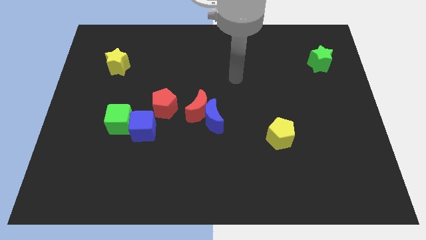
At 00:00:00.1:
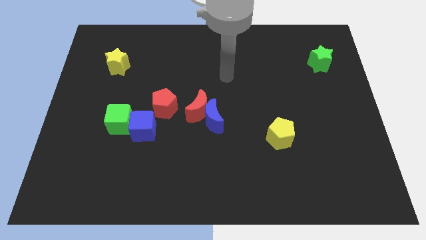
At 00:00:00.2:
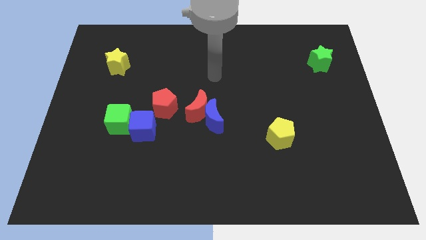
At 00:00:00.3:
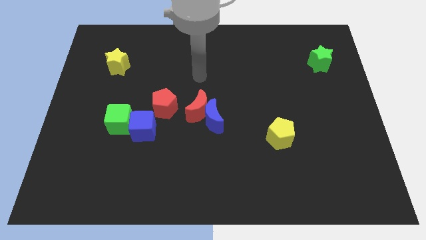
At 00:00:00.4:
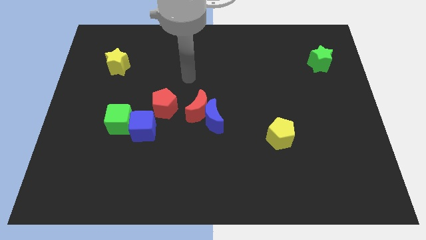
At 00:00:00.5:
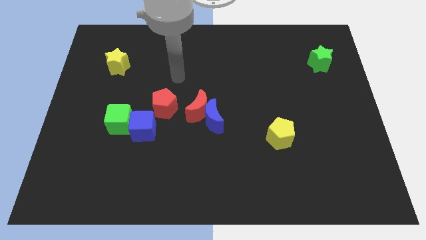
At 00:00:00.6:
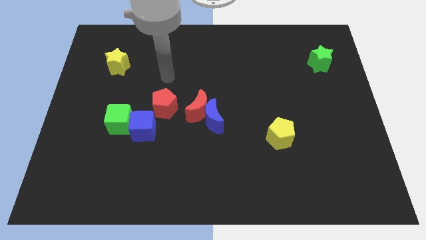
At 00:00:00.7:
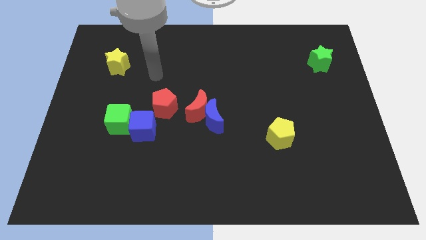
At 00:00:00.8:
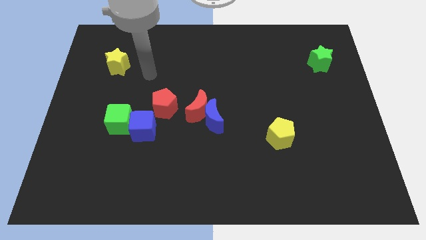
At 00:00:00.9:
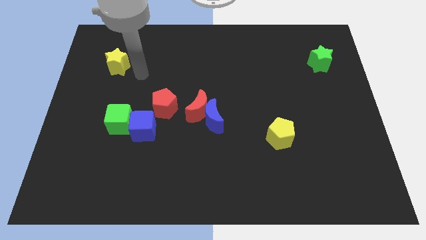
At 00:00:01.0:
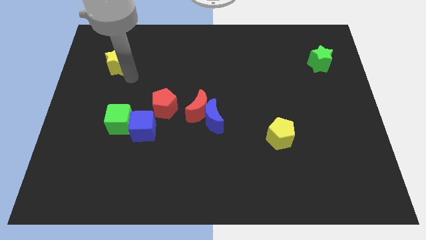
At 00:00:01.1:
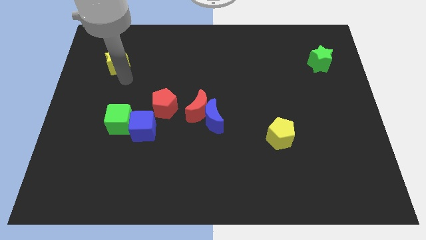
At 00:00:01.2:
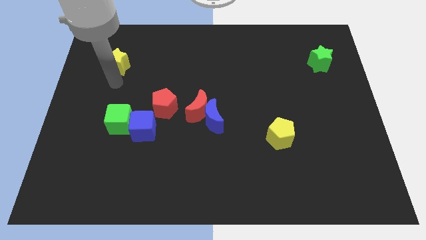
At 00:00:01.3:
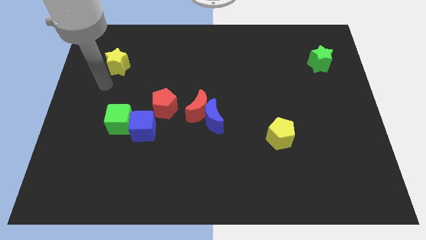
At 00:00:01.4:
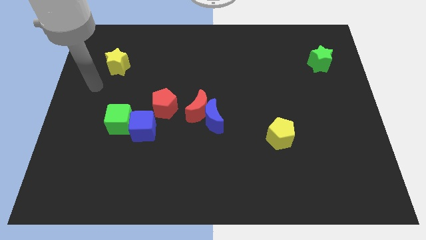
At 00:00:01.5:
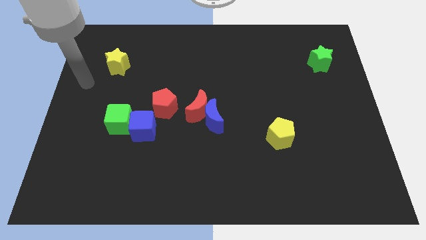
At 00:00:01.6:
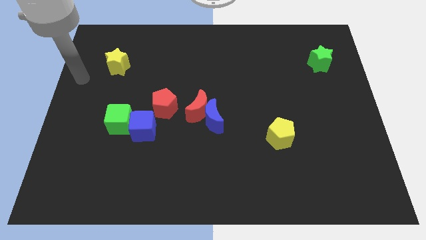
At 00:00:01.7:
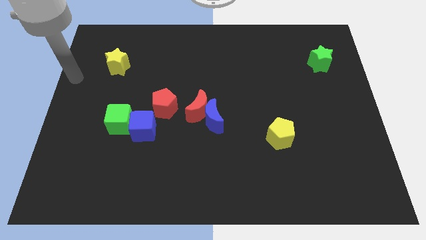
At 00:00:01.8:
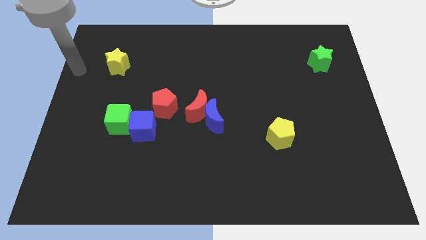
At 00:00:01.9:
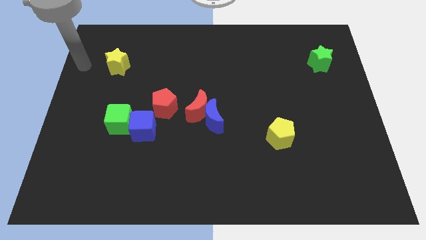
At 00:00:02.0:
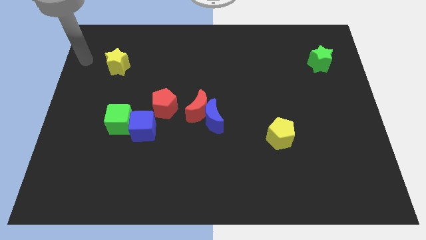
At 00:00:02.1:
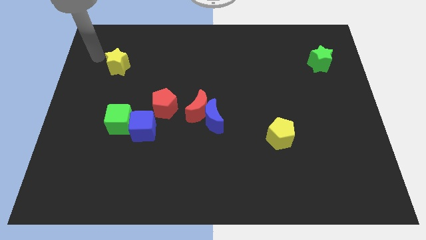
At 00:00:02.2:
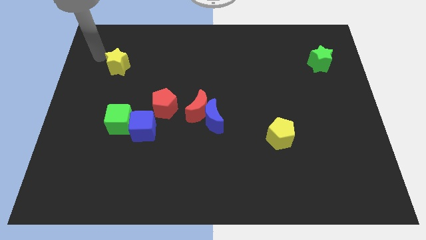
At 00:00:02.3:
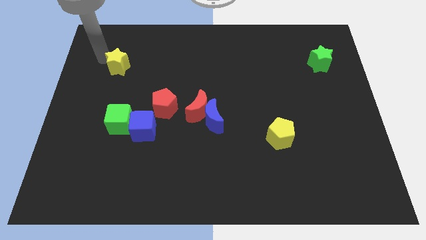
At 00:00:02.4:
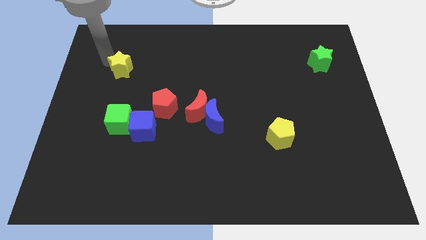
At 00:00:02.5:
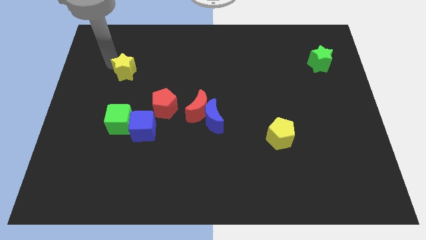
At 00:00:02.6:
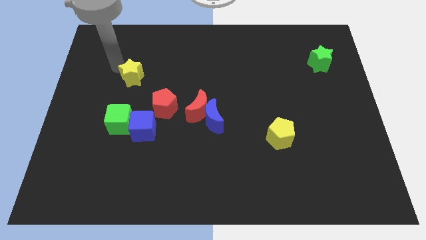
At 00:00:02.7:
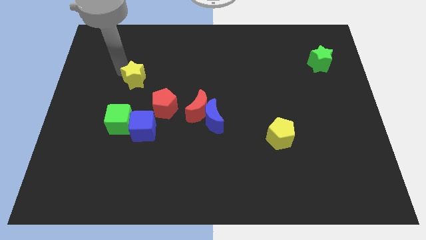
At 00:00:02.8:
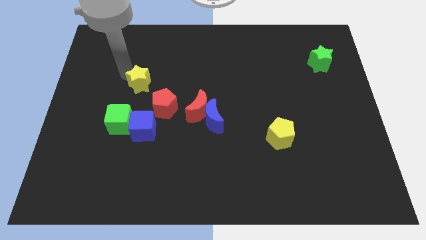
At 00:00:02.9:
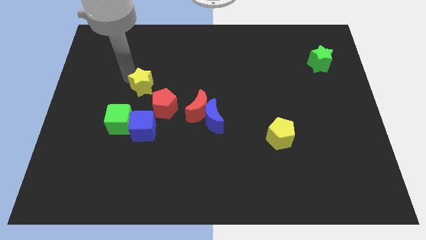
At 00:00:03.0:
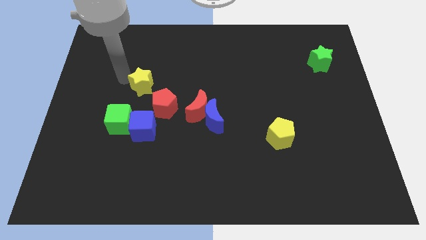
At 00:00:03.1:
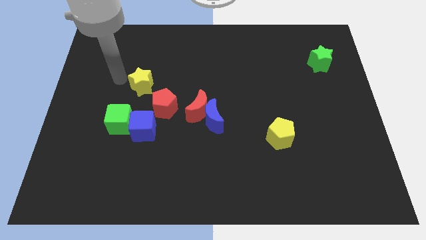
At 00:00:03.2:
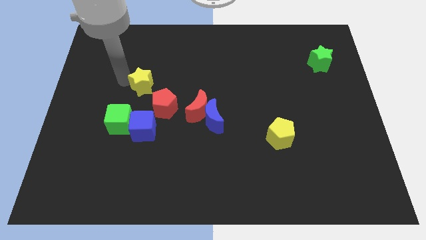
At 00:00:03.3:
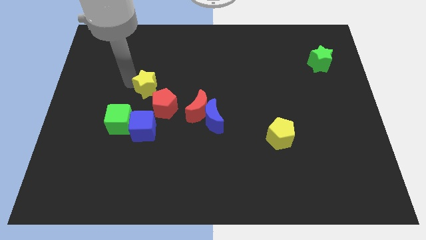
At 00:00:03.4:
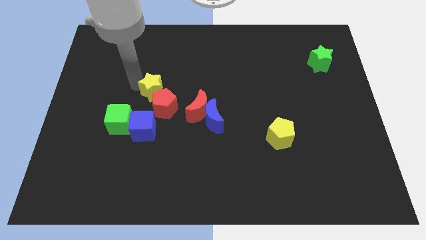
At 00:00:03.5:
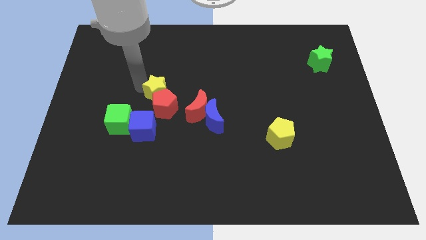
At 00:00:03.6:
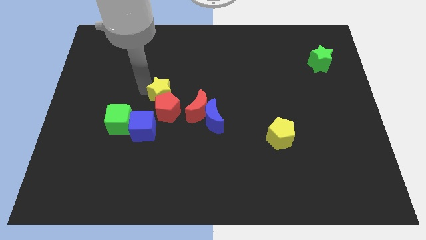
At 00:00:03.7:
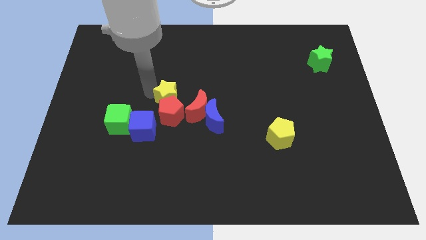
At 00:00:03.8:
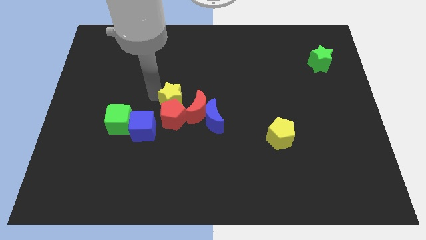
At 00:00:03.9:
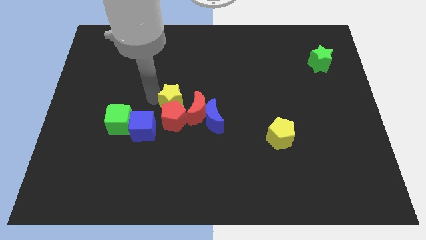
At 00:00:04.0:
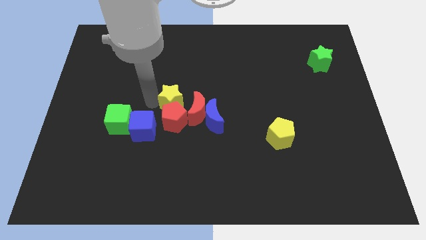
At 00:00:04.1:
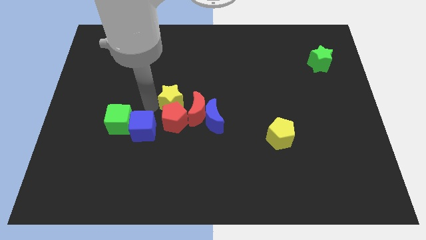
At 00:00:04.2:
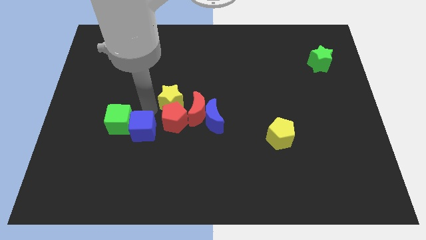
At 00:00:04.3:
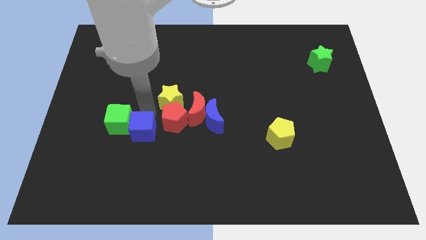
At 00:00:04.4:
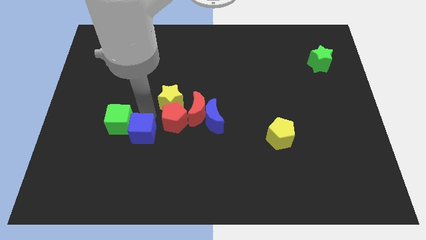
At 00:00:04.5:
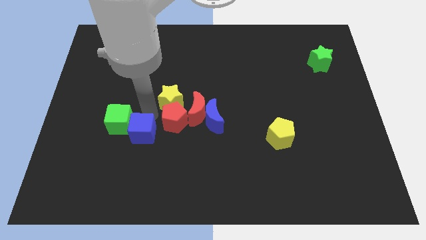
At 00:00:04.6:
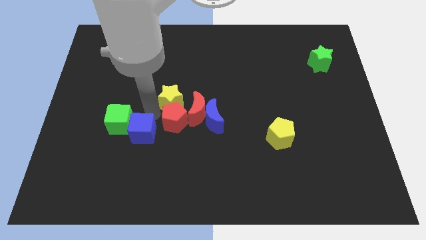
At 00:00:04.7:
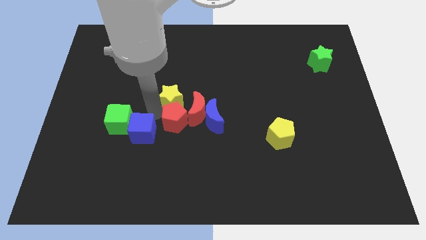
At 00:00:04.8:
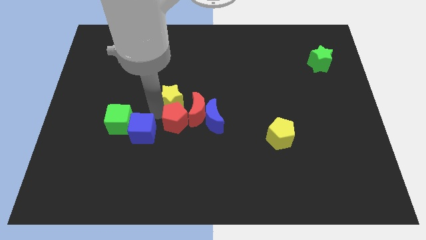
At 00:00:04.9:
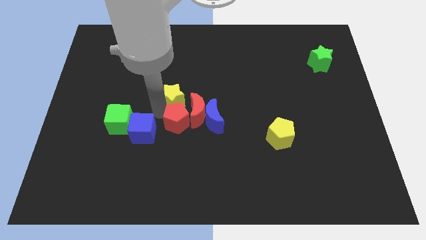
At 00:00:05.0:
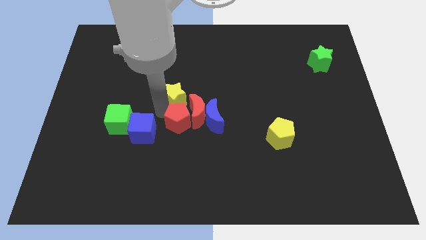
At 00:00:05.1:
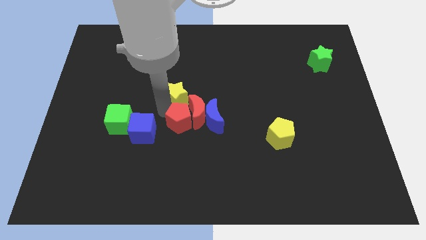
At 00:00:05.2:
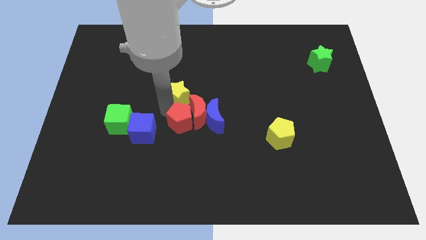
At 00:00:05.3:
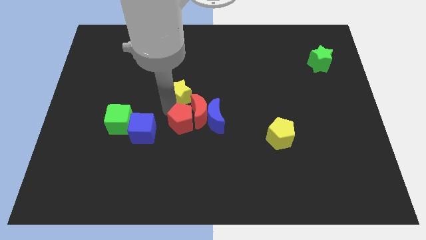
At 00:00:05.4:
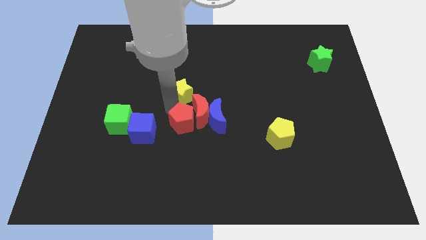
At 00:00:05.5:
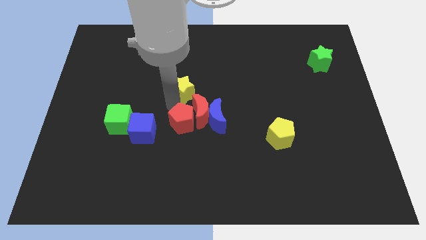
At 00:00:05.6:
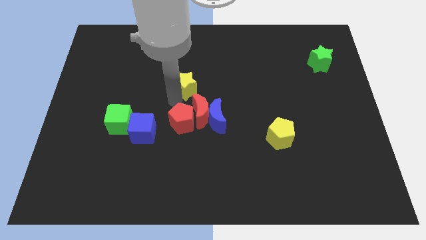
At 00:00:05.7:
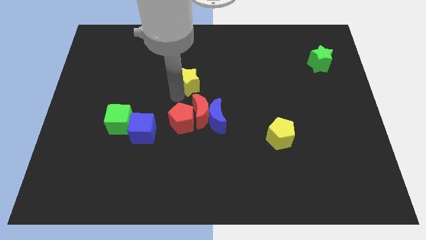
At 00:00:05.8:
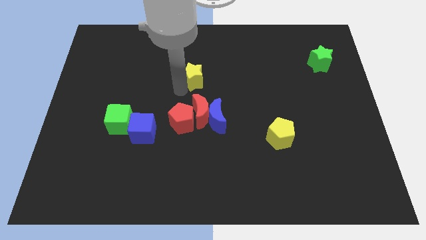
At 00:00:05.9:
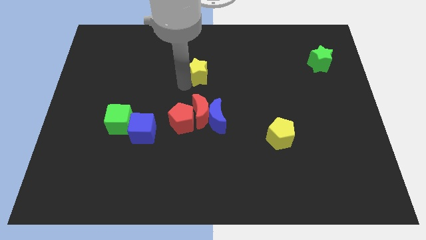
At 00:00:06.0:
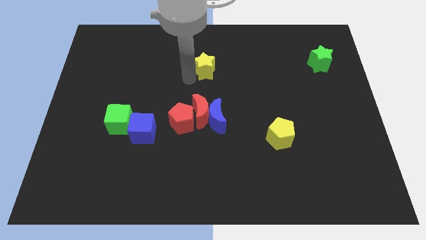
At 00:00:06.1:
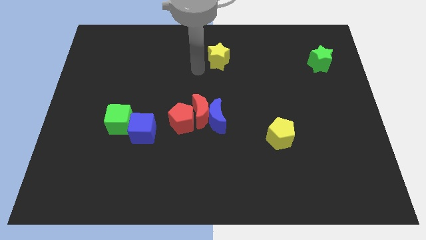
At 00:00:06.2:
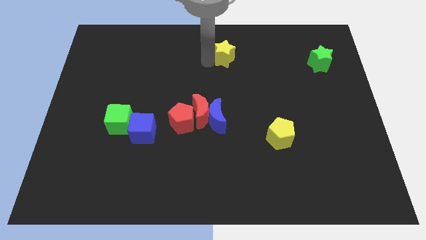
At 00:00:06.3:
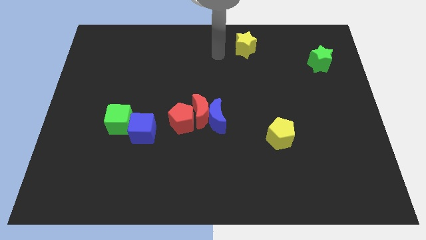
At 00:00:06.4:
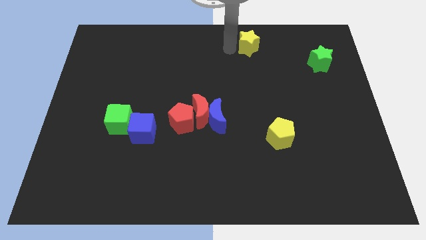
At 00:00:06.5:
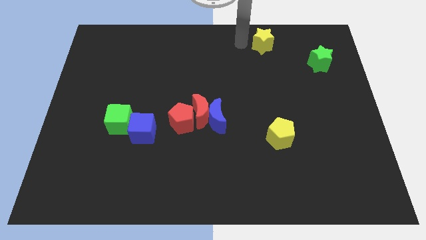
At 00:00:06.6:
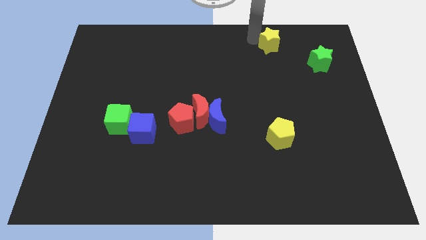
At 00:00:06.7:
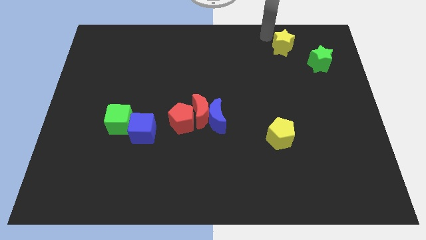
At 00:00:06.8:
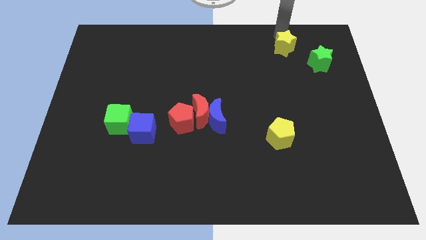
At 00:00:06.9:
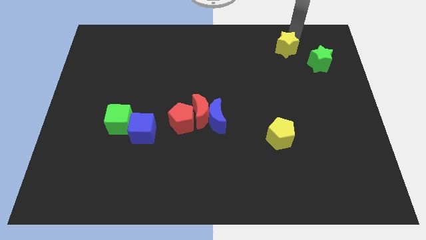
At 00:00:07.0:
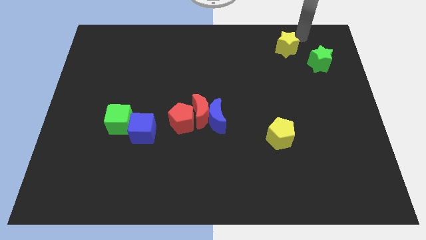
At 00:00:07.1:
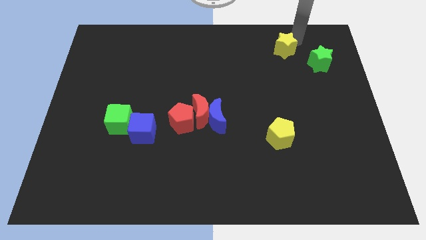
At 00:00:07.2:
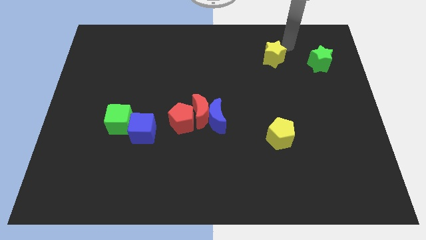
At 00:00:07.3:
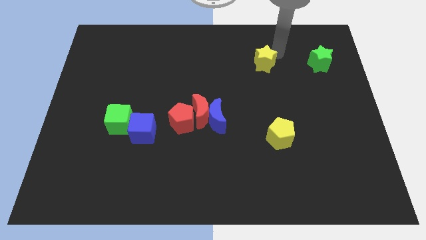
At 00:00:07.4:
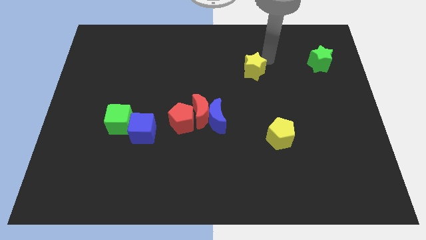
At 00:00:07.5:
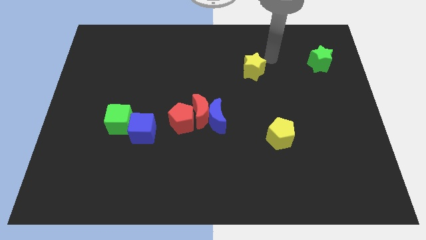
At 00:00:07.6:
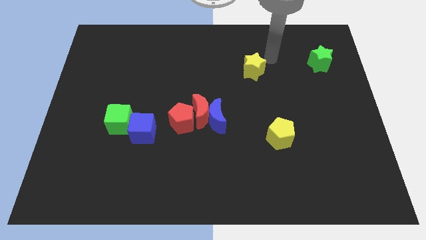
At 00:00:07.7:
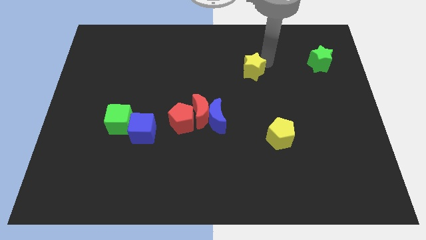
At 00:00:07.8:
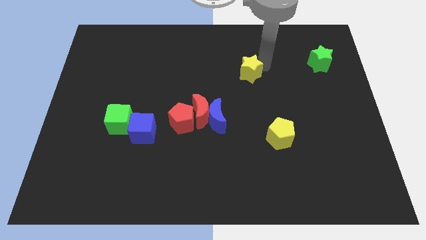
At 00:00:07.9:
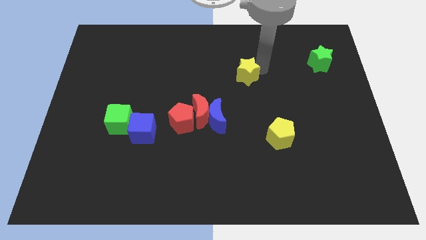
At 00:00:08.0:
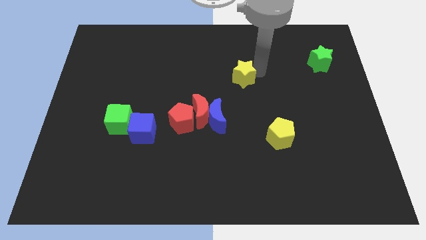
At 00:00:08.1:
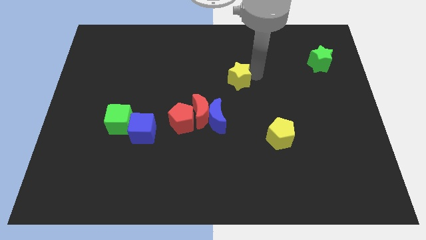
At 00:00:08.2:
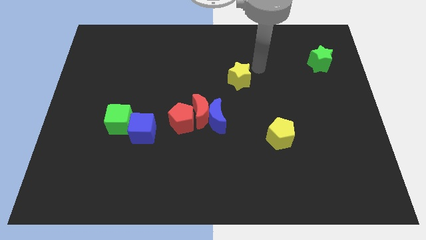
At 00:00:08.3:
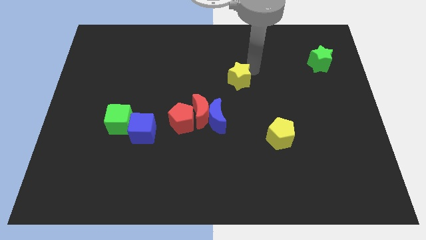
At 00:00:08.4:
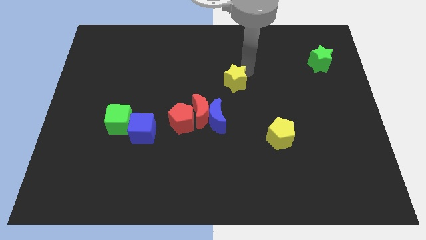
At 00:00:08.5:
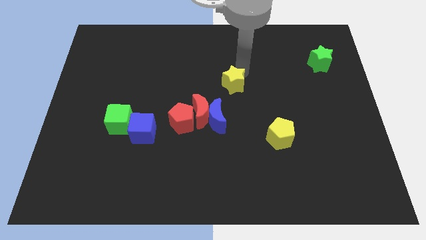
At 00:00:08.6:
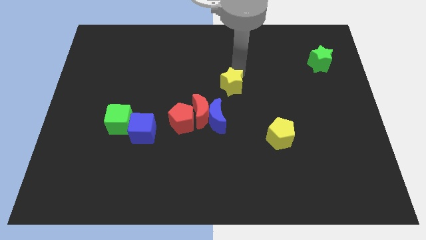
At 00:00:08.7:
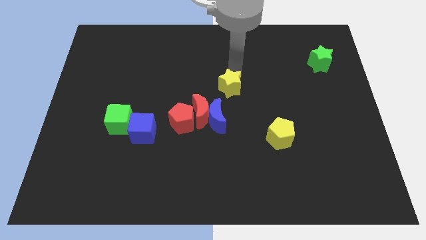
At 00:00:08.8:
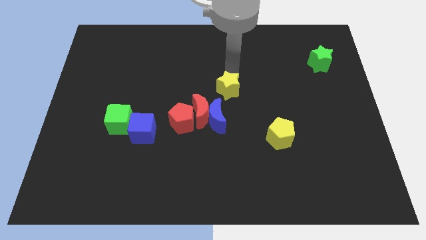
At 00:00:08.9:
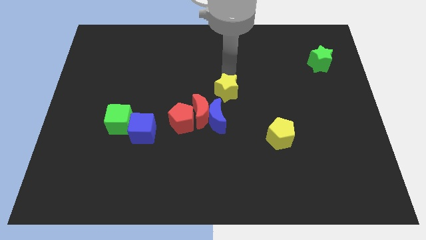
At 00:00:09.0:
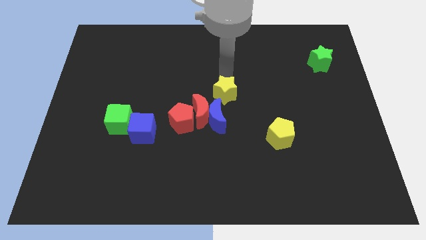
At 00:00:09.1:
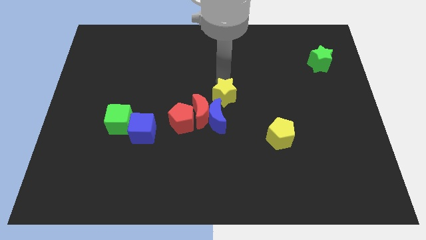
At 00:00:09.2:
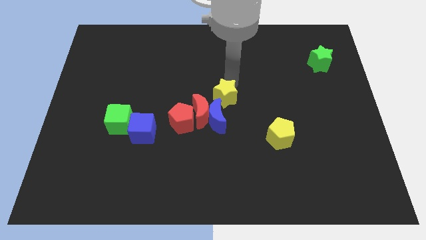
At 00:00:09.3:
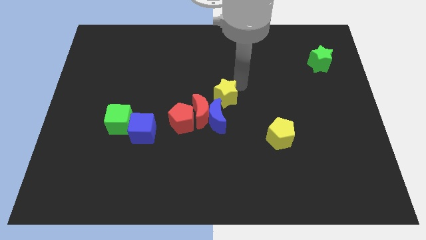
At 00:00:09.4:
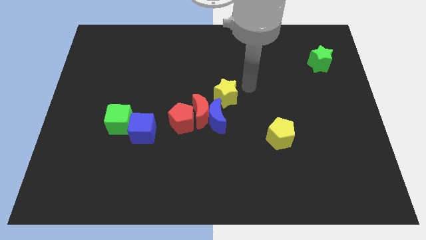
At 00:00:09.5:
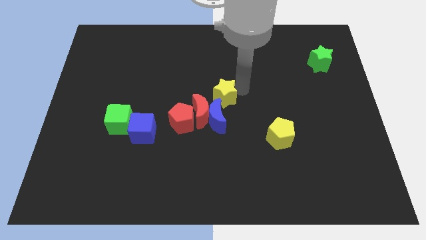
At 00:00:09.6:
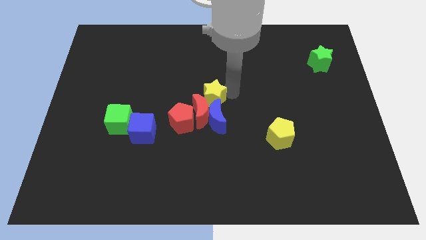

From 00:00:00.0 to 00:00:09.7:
push the yellow star down and to the right diagonally
